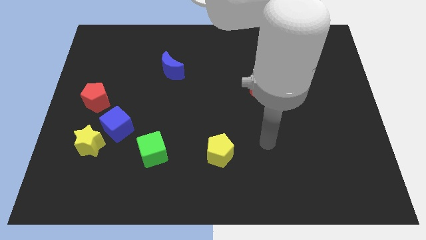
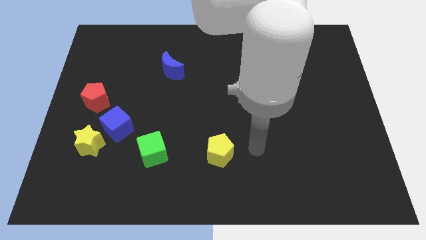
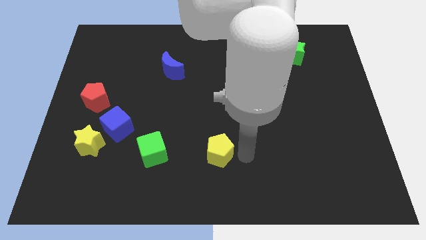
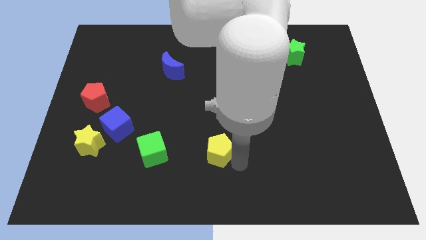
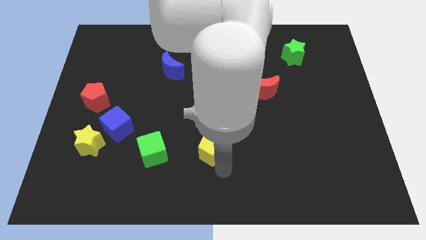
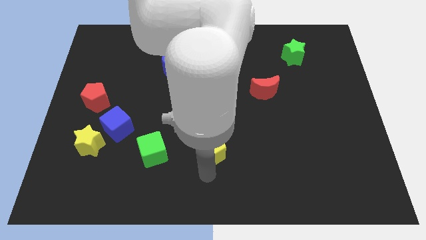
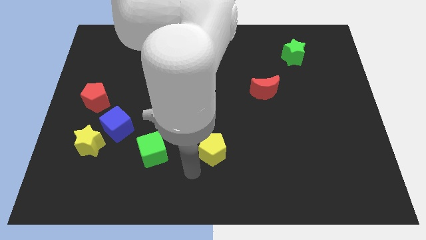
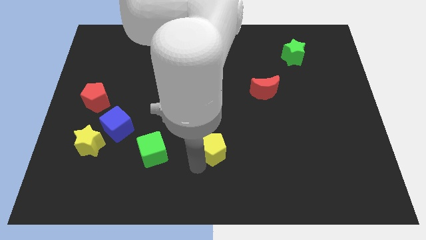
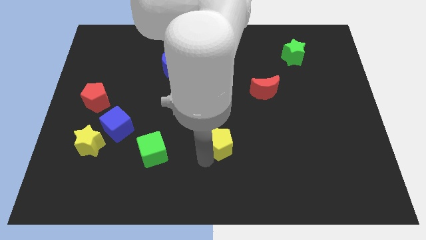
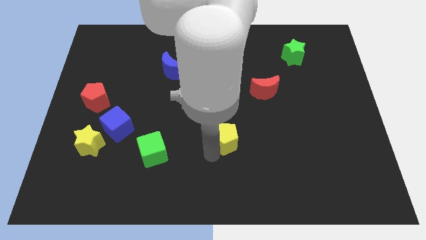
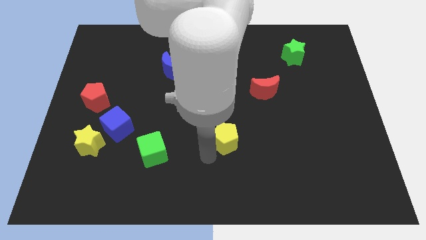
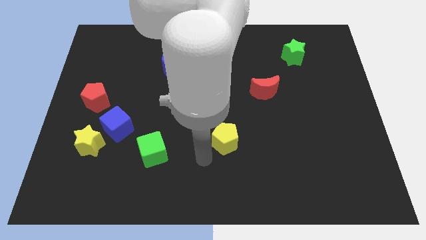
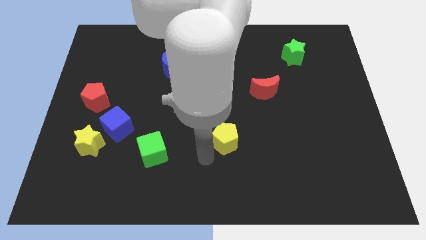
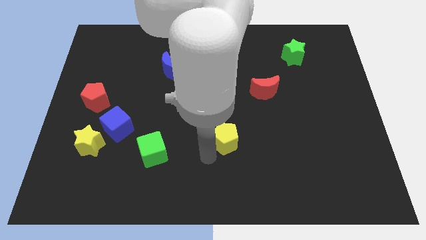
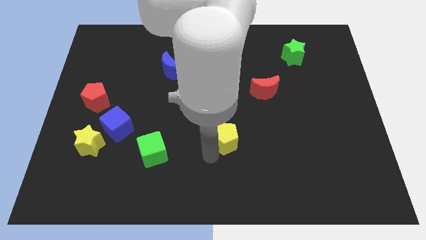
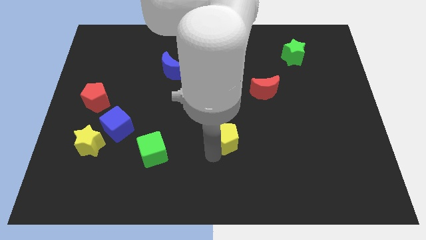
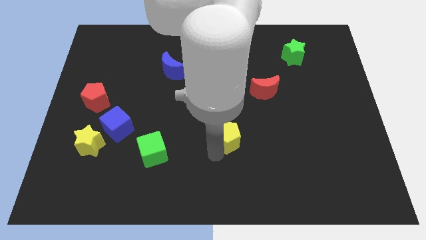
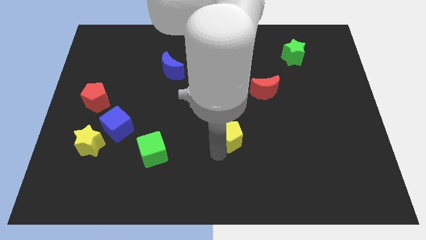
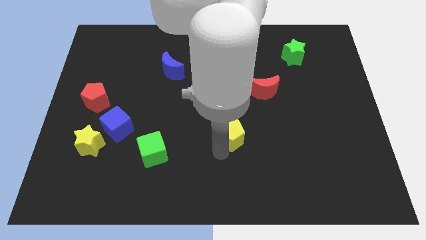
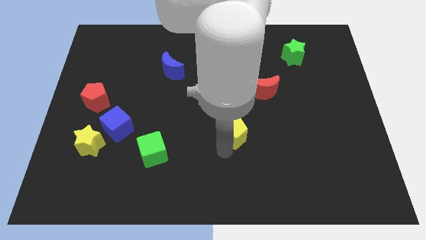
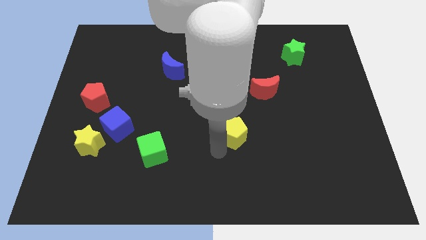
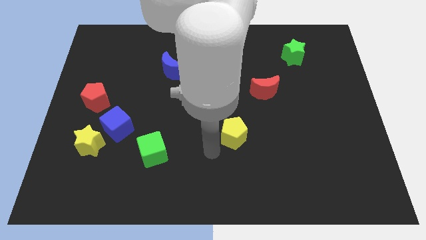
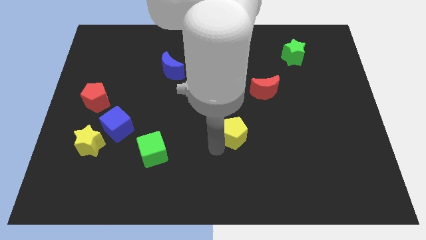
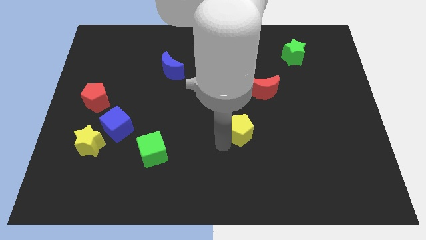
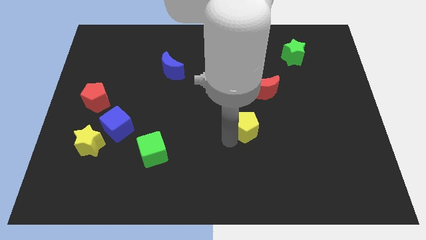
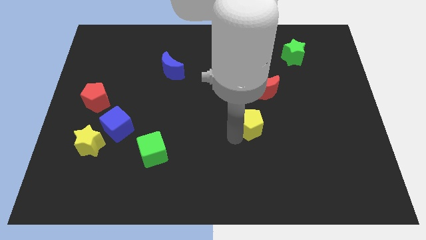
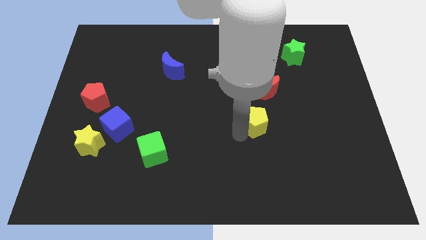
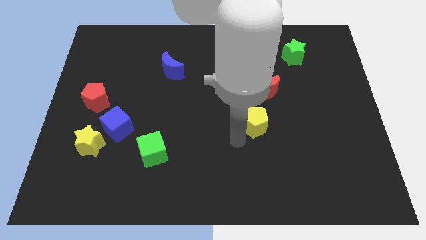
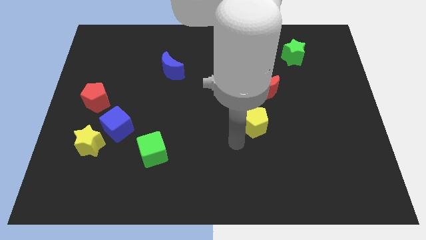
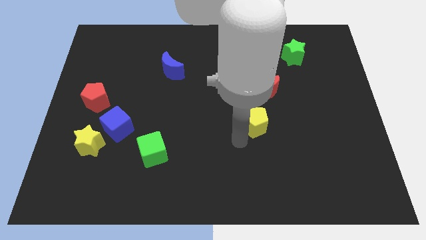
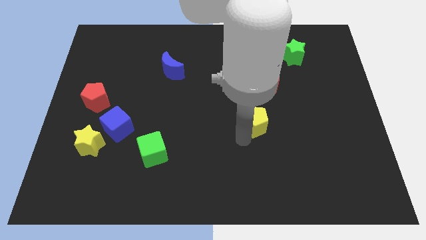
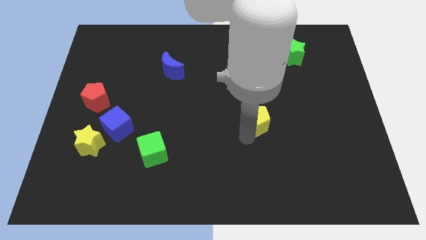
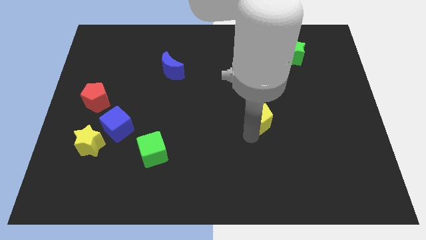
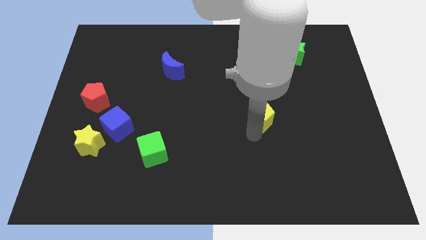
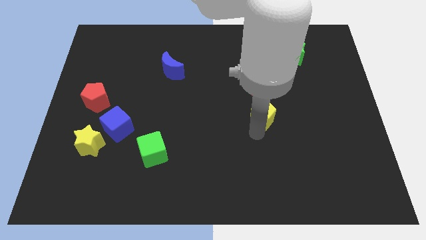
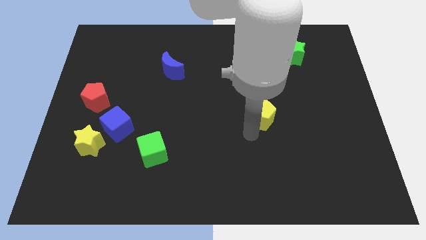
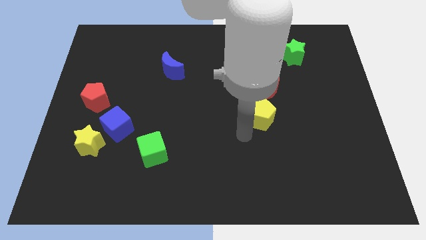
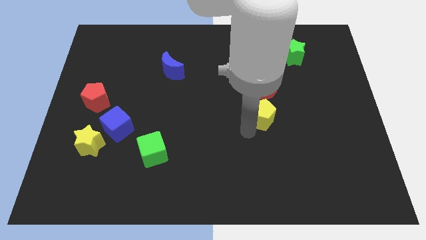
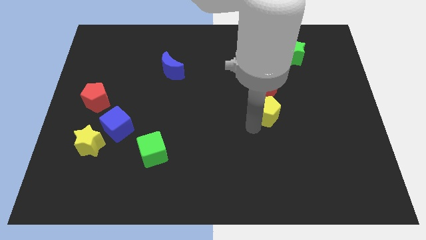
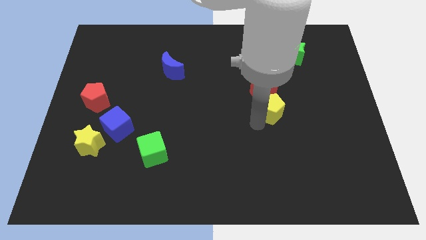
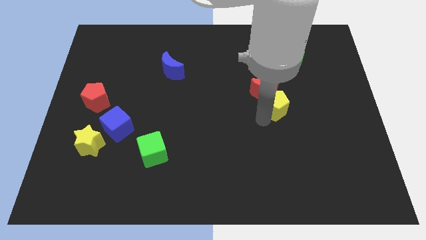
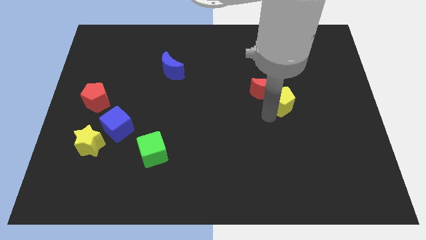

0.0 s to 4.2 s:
move the yellow pentagon up and right

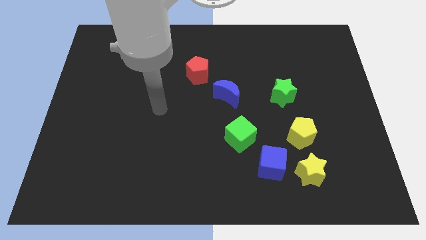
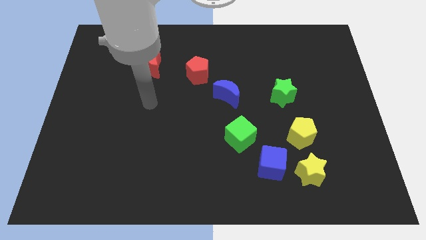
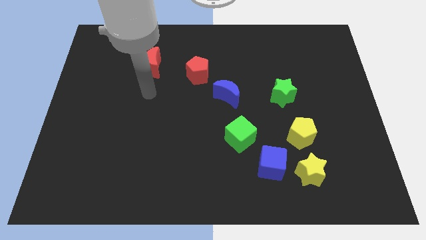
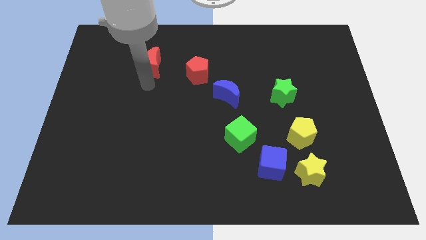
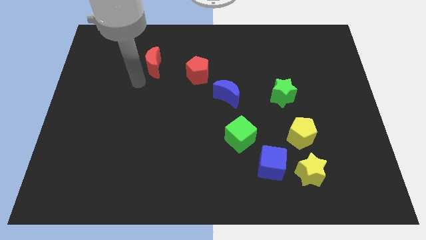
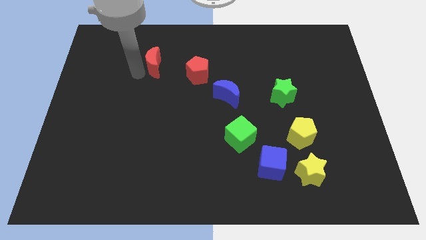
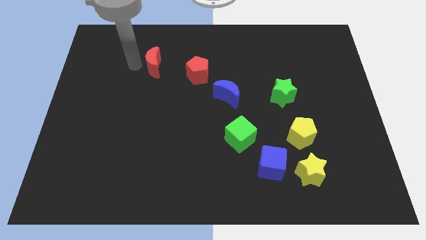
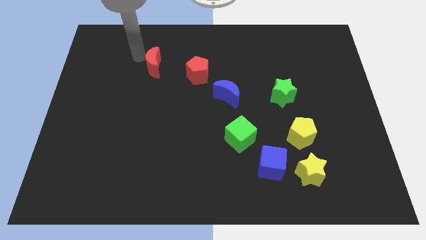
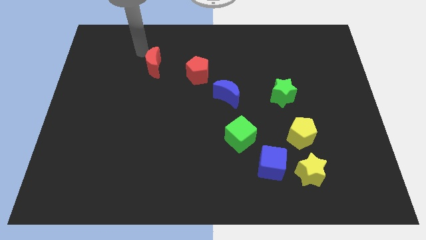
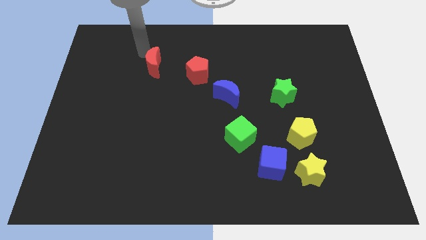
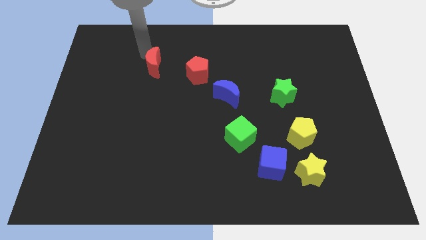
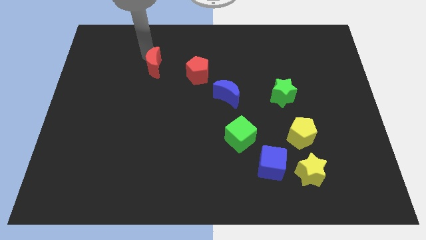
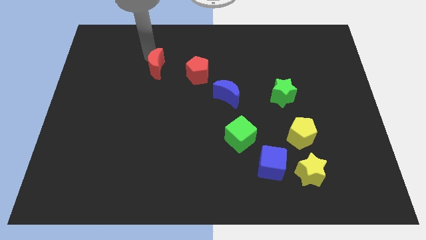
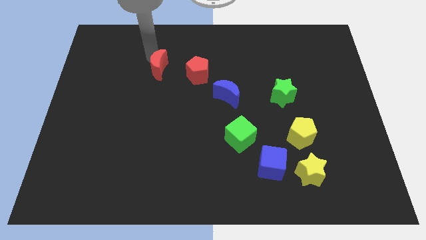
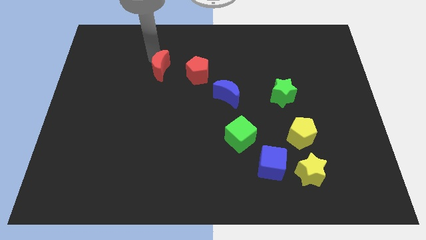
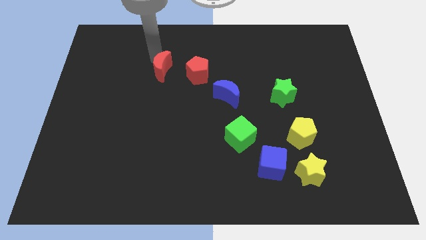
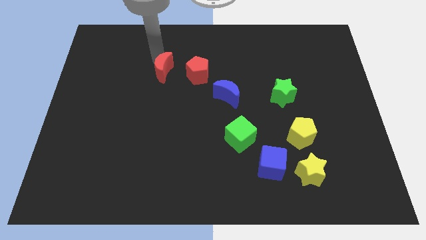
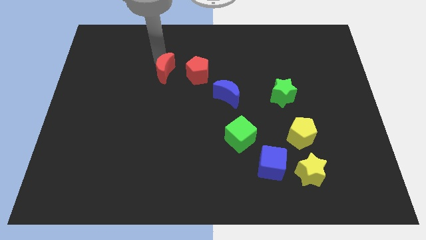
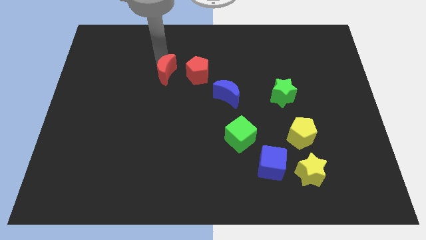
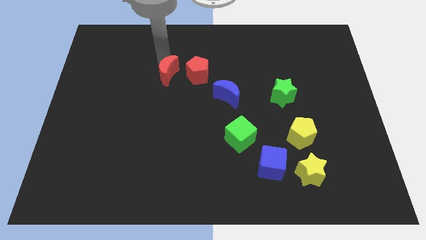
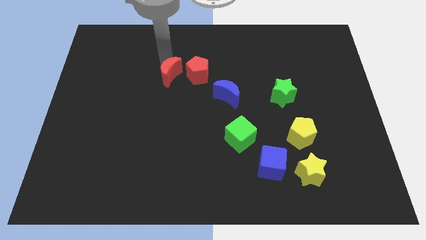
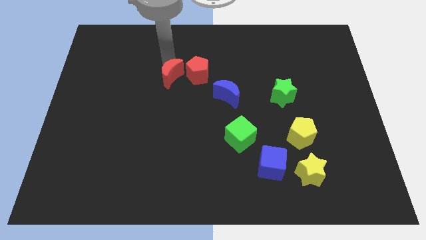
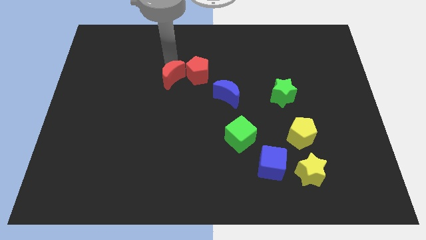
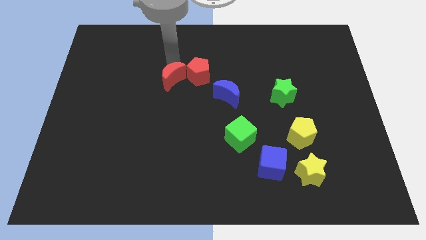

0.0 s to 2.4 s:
push the red moon slightly down and right diagonally

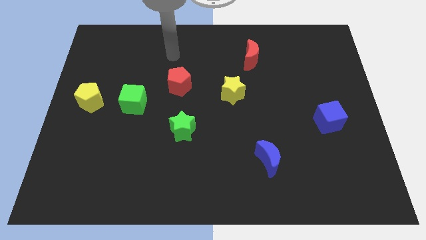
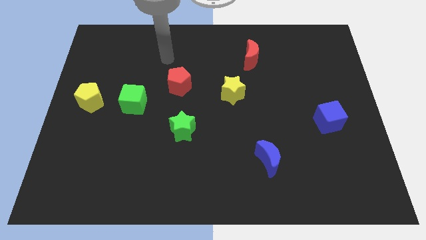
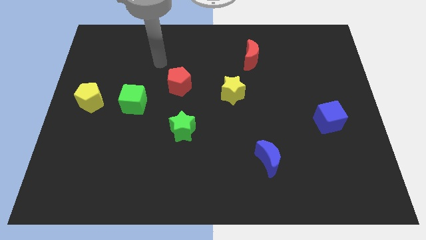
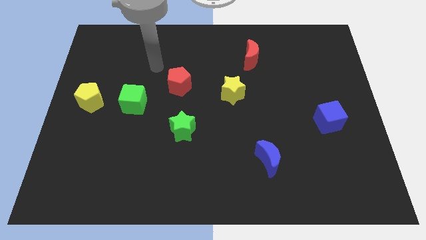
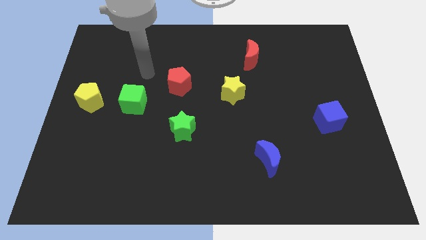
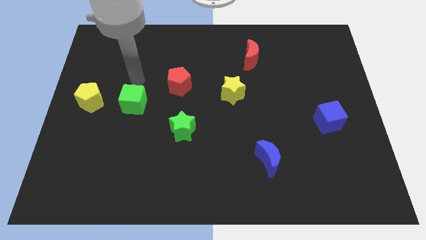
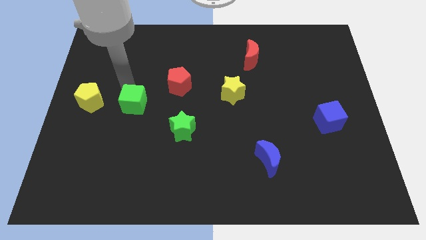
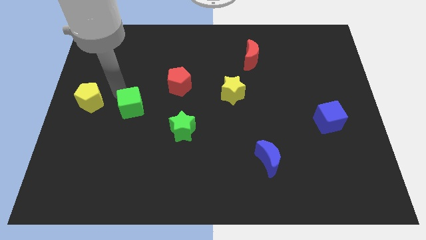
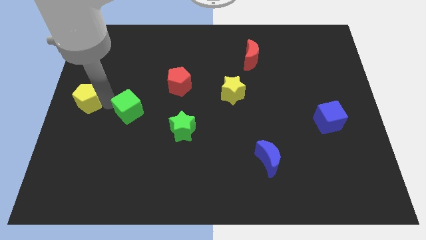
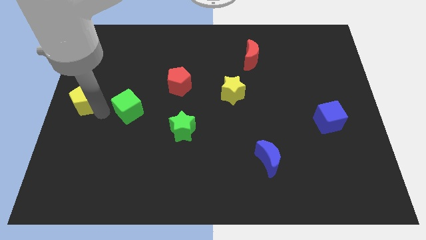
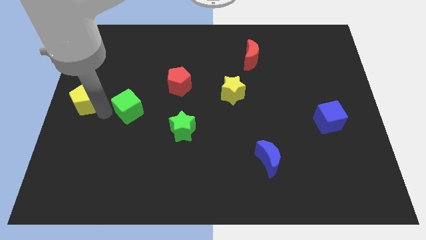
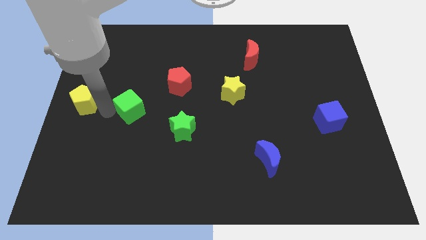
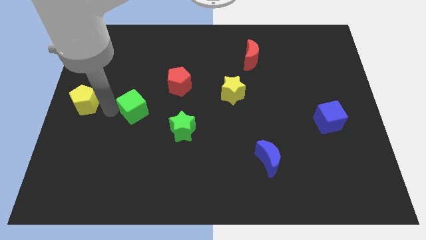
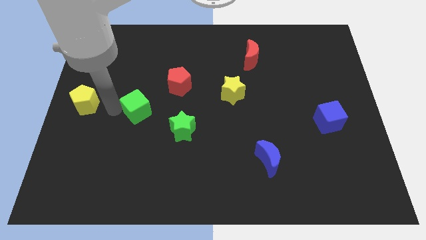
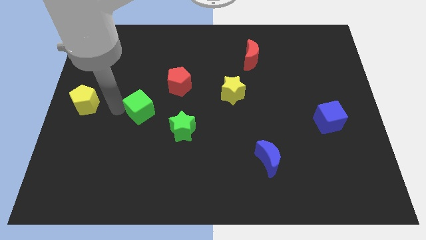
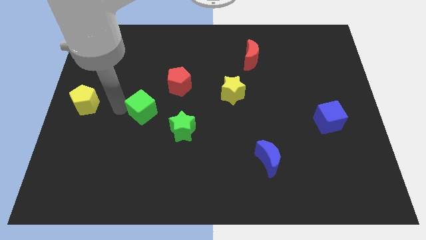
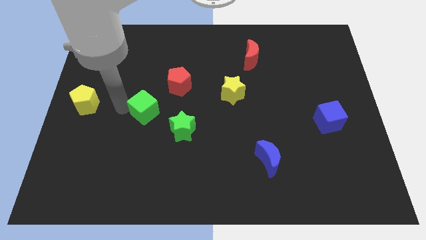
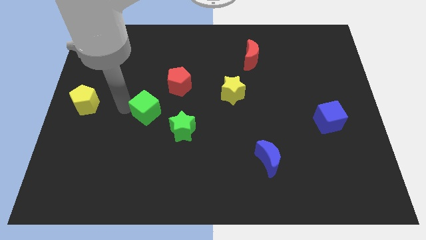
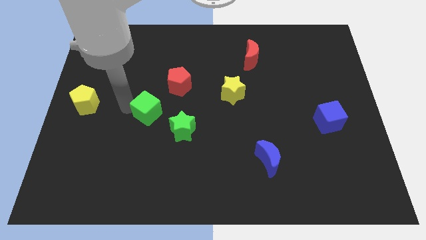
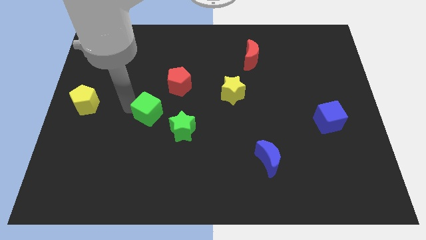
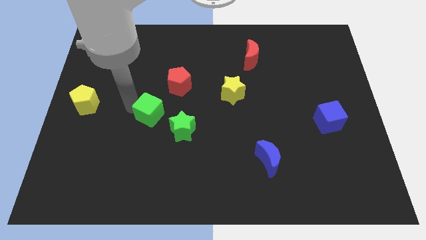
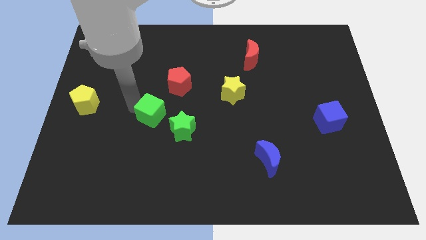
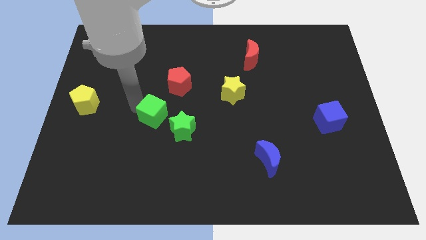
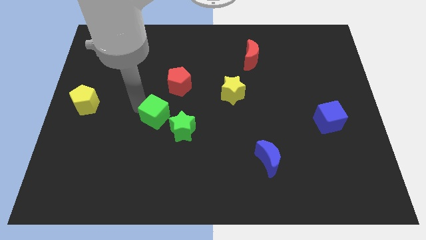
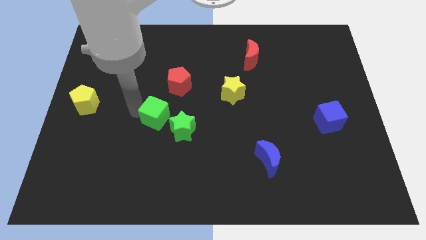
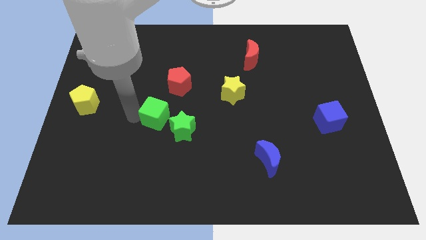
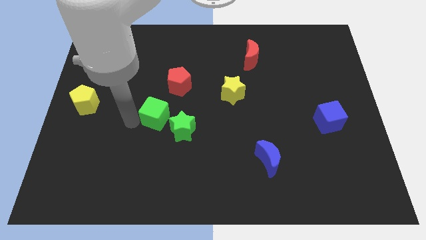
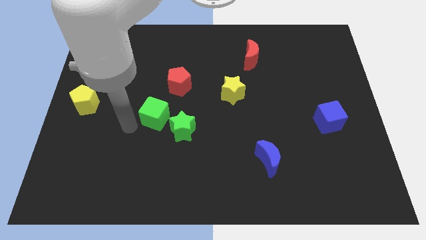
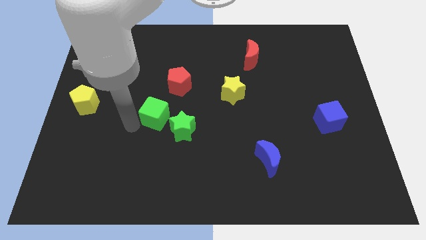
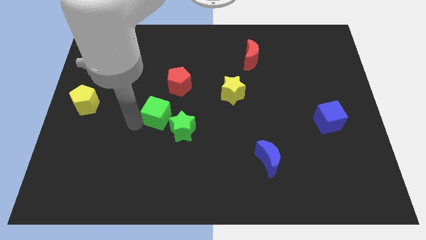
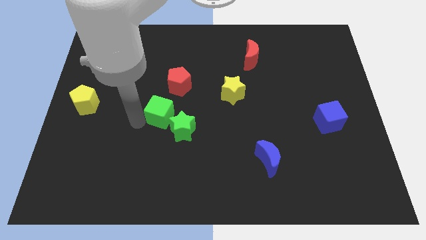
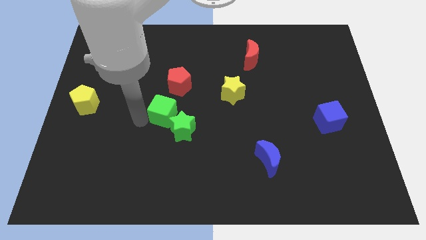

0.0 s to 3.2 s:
slightly slide the green cube to the right
